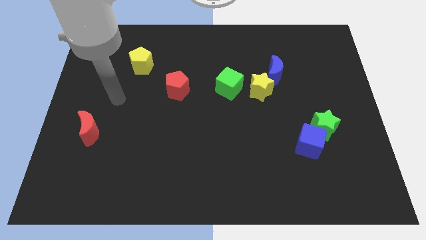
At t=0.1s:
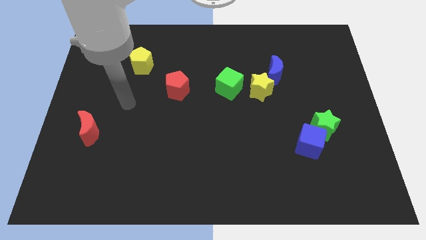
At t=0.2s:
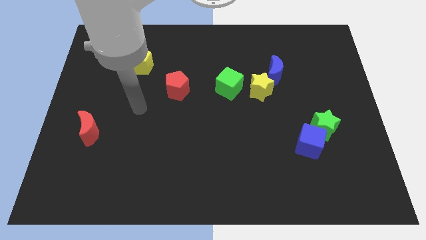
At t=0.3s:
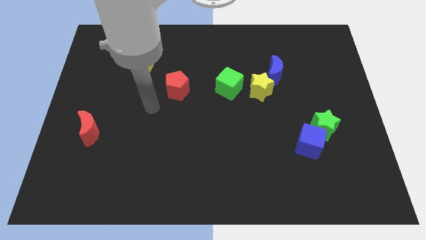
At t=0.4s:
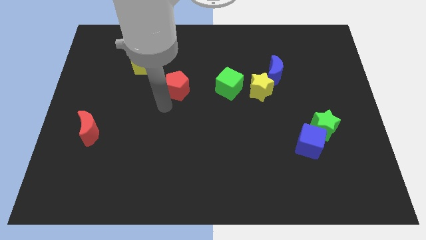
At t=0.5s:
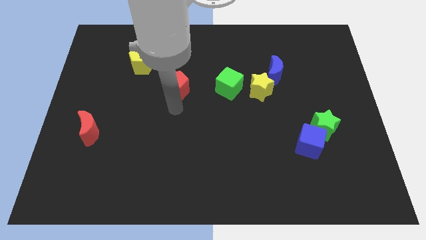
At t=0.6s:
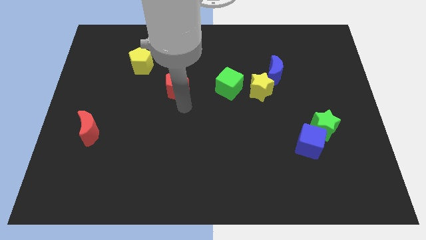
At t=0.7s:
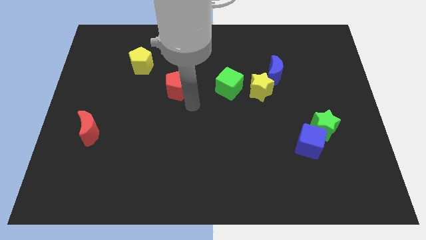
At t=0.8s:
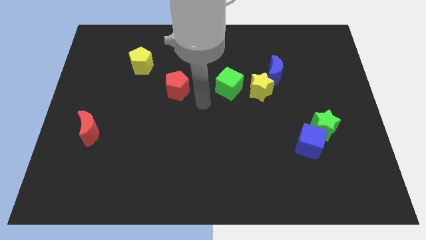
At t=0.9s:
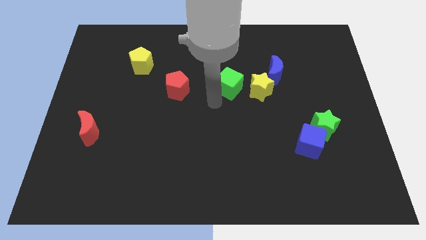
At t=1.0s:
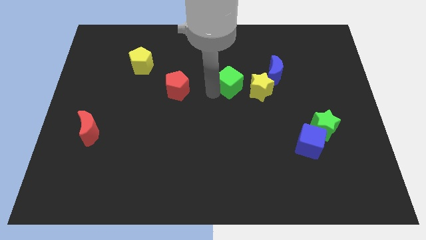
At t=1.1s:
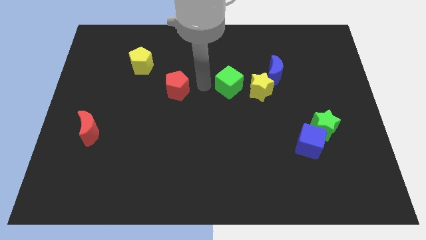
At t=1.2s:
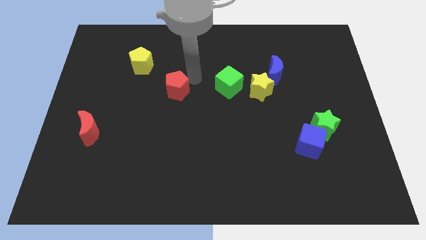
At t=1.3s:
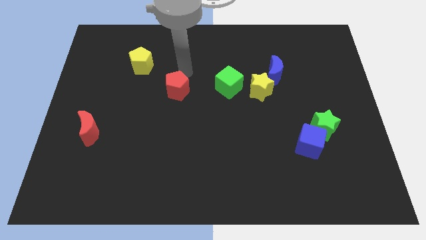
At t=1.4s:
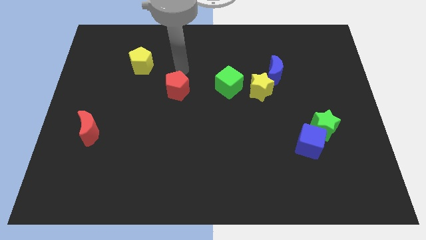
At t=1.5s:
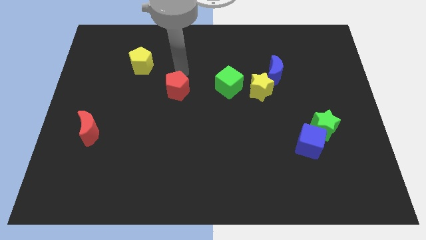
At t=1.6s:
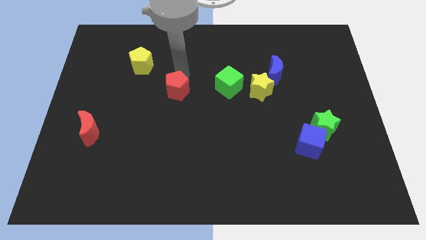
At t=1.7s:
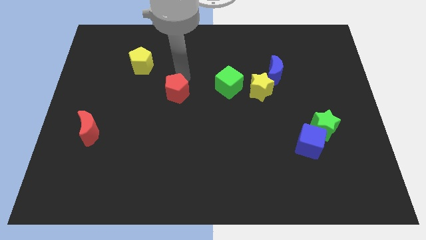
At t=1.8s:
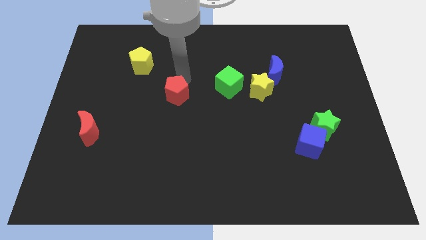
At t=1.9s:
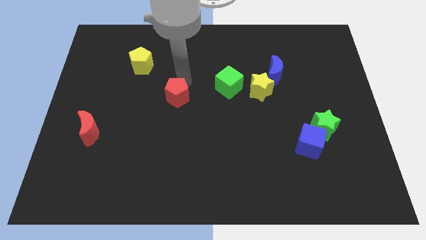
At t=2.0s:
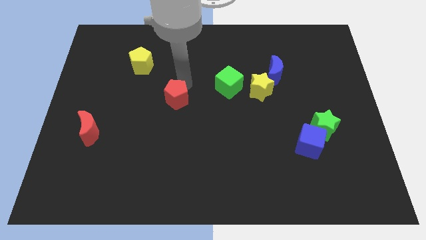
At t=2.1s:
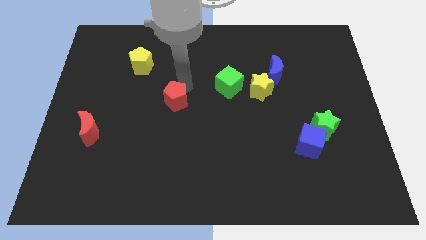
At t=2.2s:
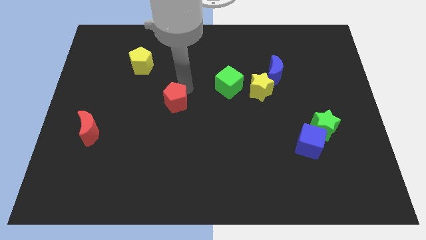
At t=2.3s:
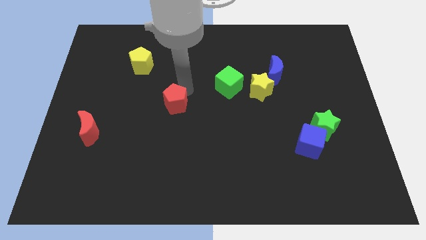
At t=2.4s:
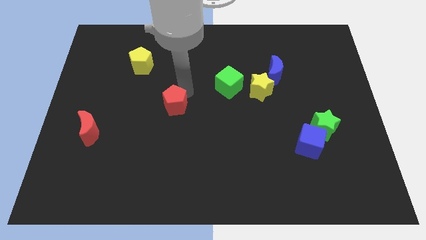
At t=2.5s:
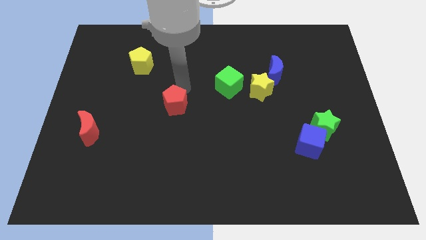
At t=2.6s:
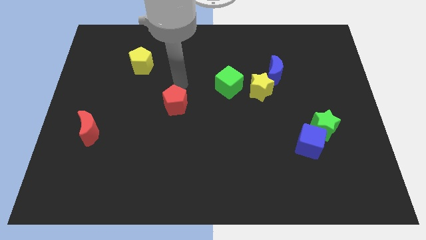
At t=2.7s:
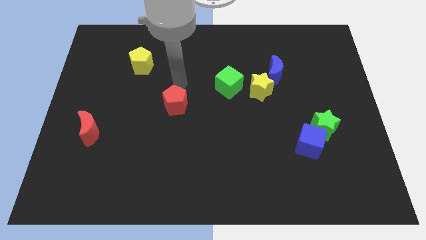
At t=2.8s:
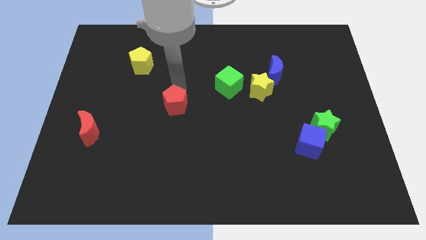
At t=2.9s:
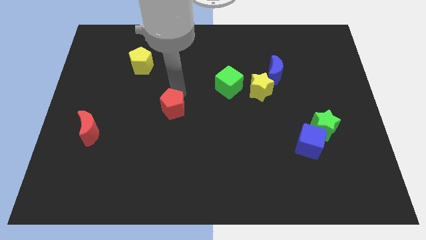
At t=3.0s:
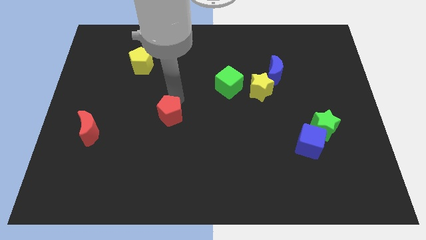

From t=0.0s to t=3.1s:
slightly push the red pentagon down

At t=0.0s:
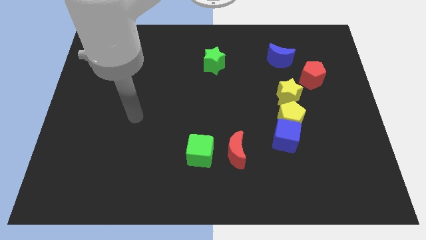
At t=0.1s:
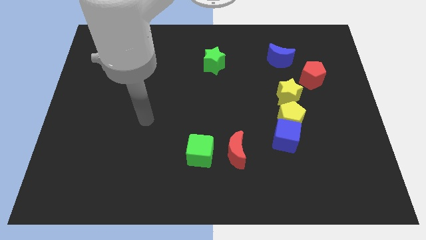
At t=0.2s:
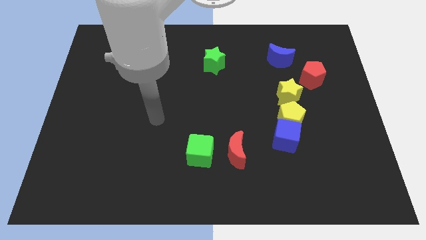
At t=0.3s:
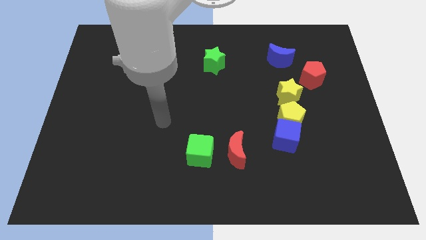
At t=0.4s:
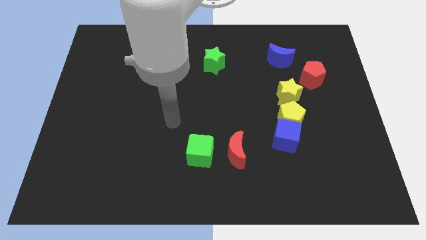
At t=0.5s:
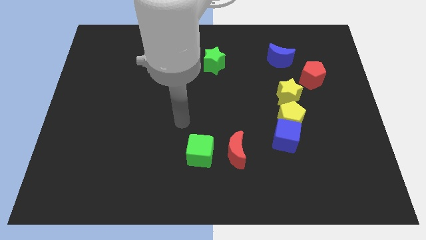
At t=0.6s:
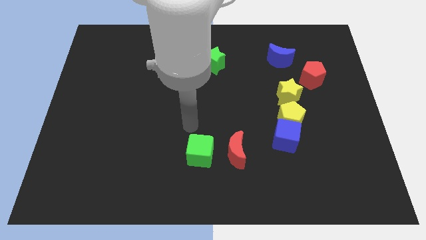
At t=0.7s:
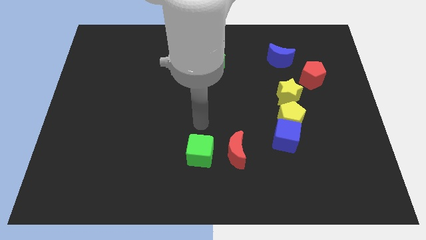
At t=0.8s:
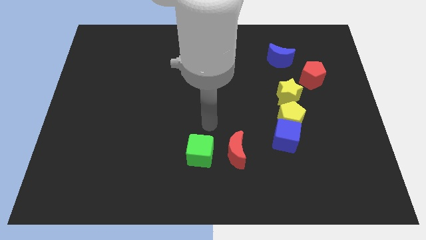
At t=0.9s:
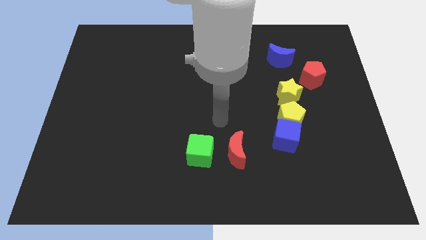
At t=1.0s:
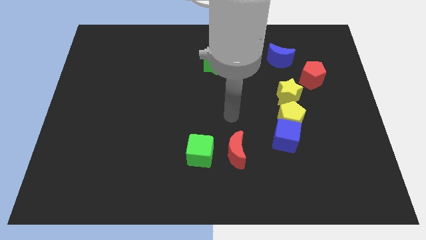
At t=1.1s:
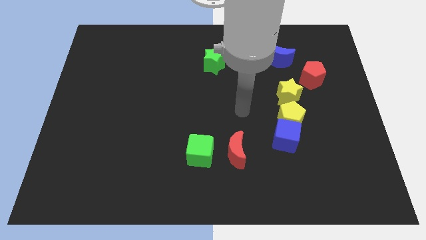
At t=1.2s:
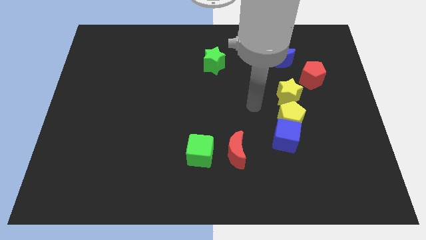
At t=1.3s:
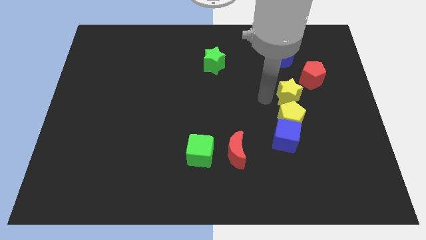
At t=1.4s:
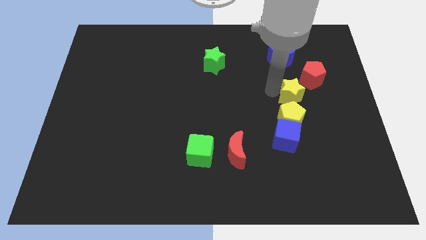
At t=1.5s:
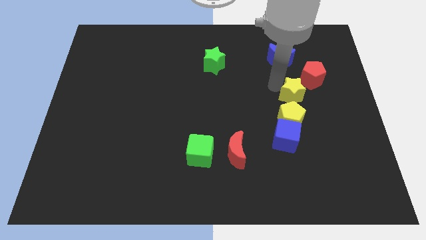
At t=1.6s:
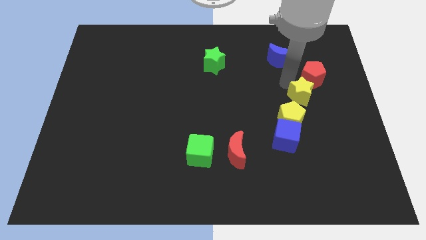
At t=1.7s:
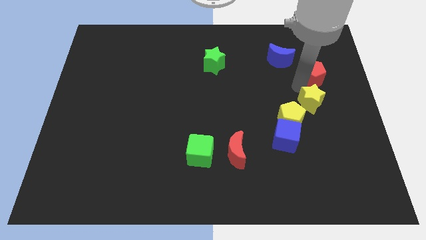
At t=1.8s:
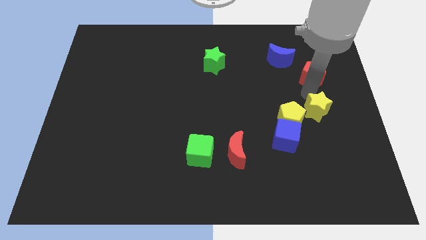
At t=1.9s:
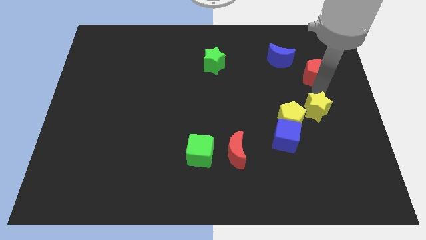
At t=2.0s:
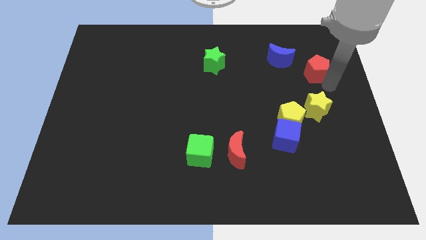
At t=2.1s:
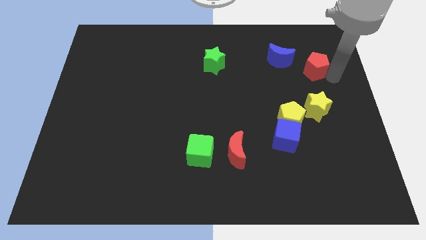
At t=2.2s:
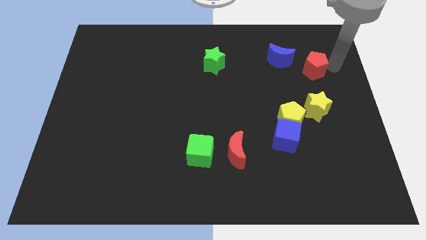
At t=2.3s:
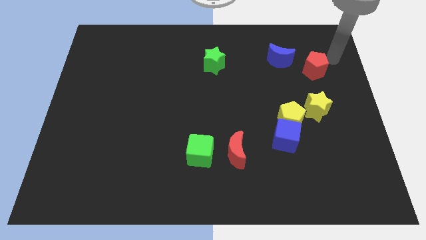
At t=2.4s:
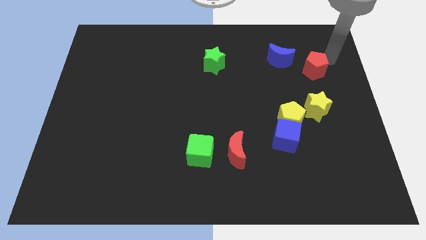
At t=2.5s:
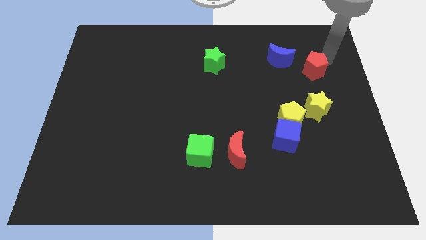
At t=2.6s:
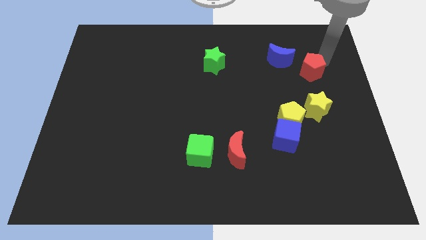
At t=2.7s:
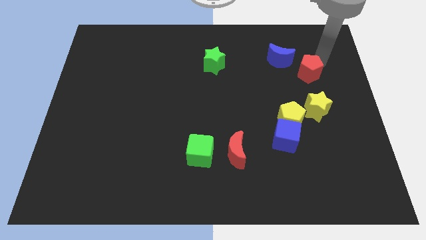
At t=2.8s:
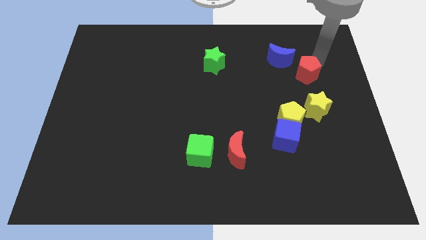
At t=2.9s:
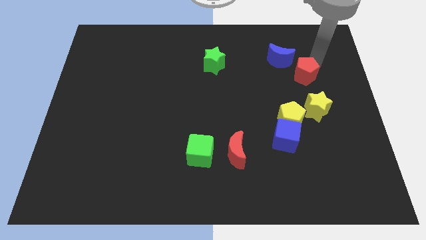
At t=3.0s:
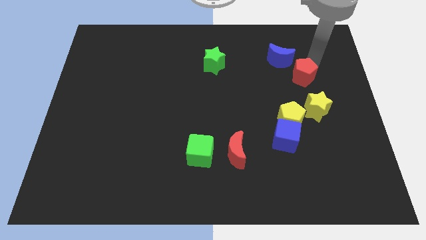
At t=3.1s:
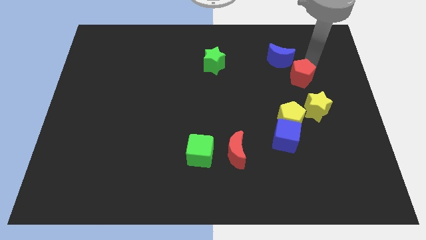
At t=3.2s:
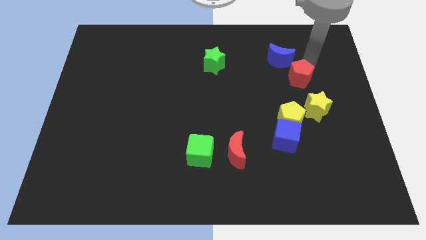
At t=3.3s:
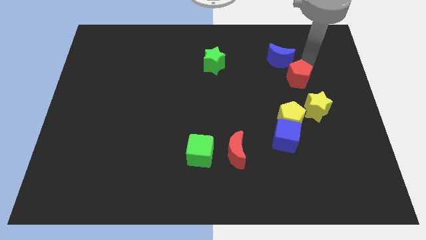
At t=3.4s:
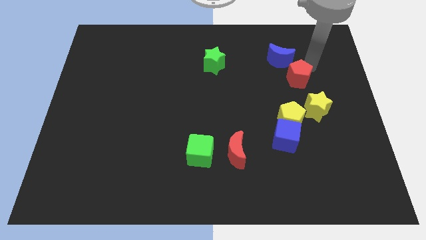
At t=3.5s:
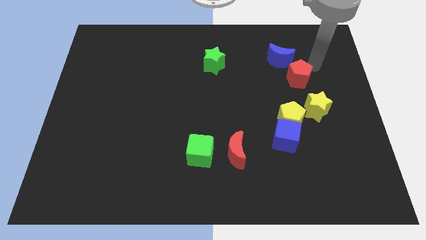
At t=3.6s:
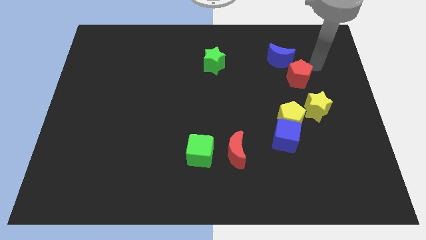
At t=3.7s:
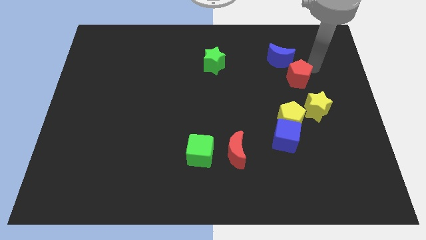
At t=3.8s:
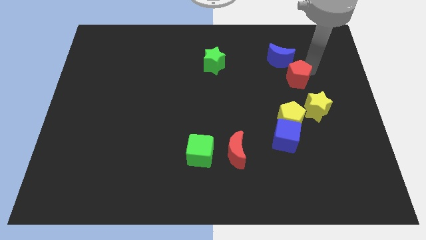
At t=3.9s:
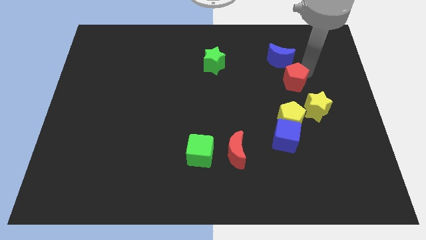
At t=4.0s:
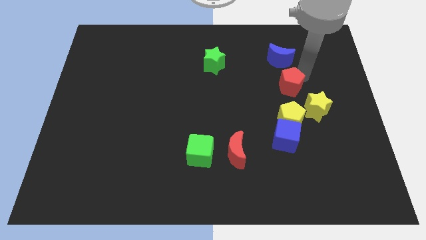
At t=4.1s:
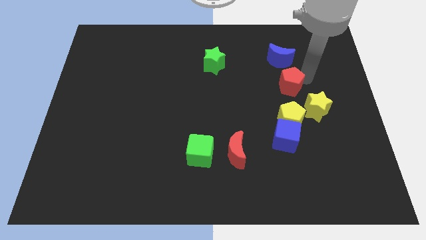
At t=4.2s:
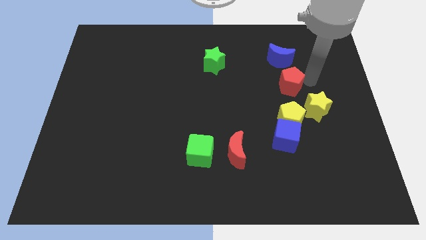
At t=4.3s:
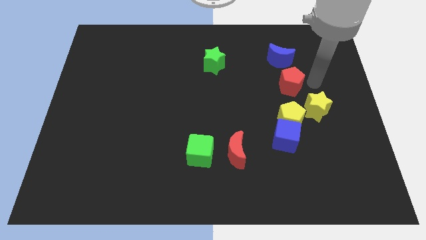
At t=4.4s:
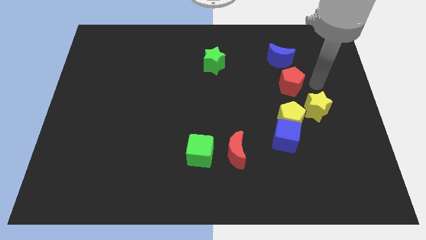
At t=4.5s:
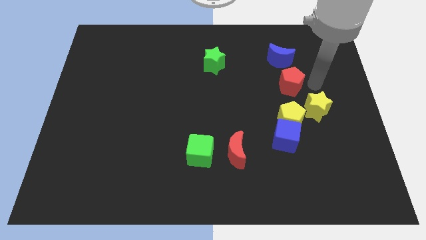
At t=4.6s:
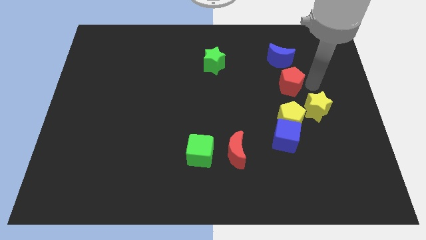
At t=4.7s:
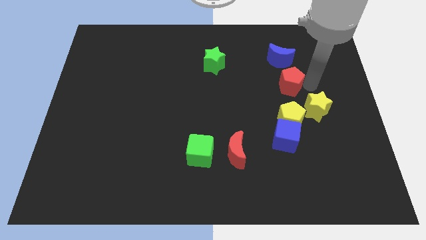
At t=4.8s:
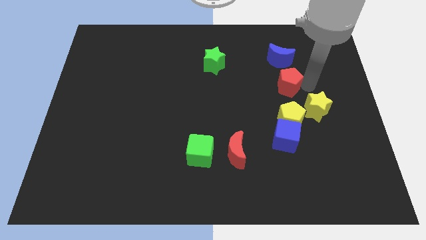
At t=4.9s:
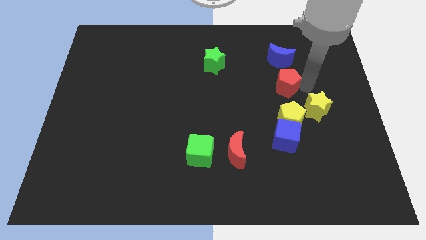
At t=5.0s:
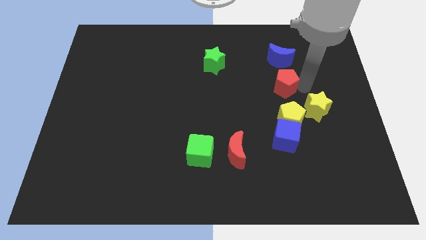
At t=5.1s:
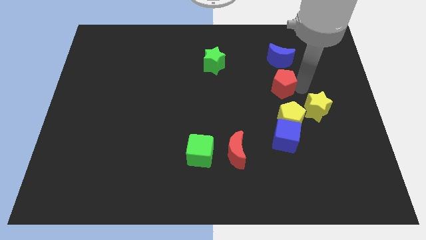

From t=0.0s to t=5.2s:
push the red pentagon diagonally down and to the left somewhat
